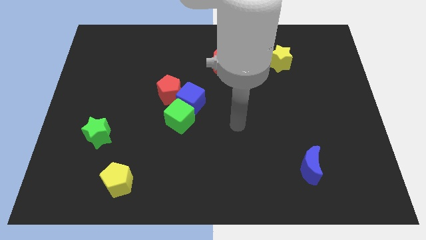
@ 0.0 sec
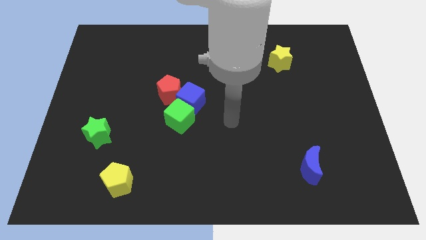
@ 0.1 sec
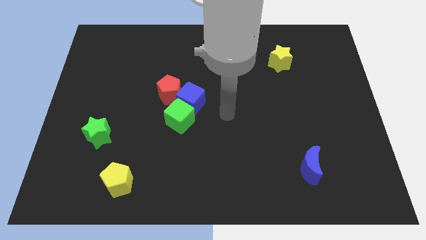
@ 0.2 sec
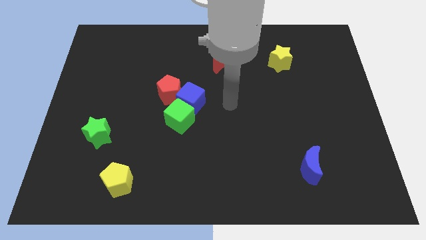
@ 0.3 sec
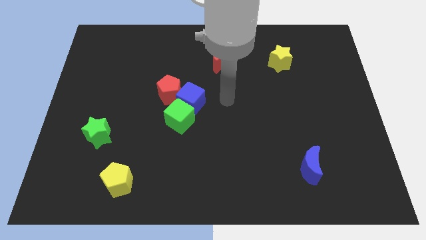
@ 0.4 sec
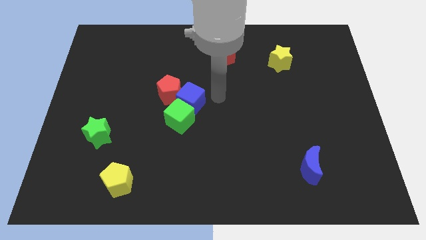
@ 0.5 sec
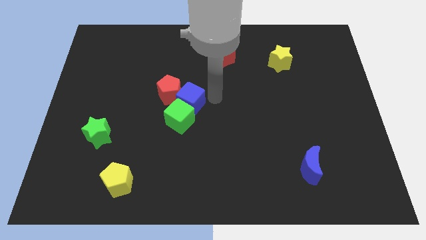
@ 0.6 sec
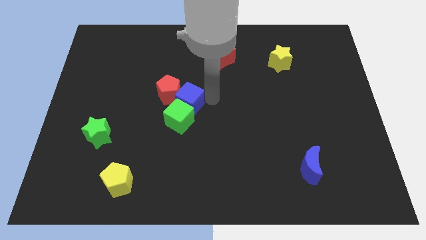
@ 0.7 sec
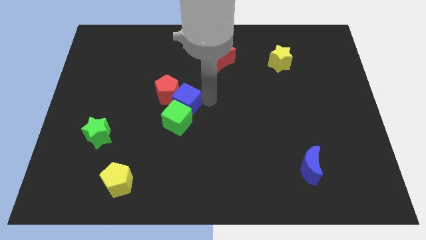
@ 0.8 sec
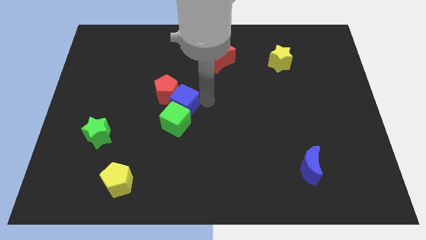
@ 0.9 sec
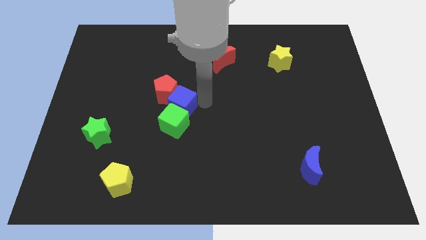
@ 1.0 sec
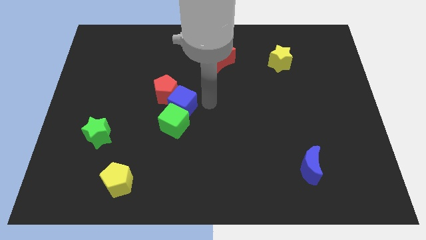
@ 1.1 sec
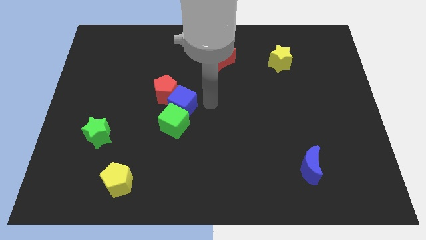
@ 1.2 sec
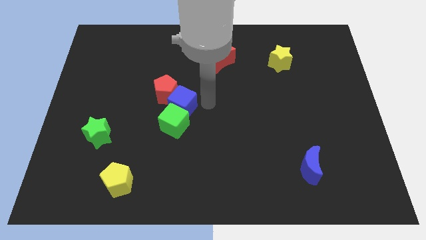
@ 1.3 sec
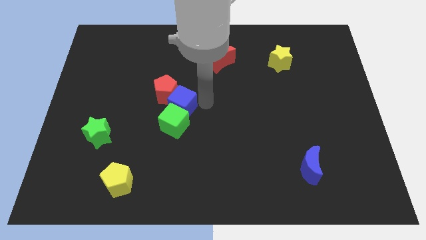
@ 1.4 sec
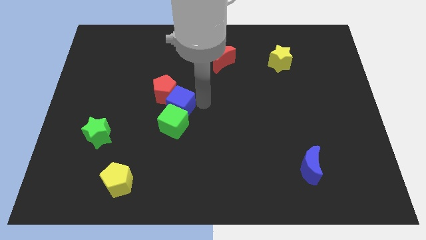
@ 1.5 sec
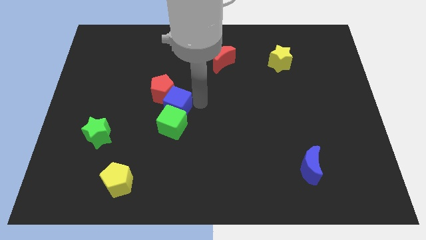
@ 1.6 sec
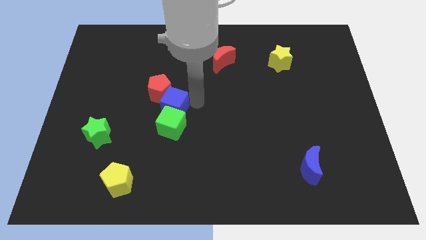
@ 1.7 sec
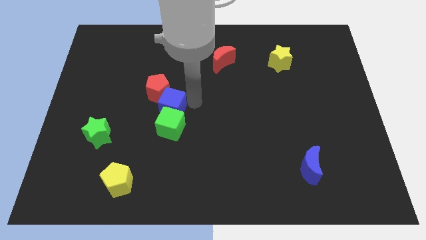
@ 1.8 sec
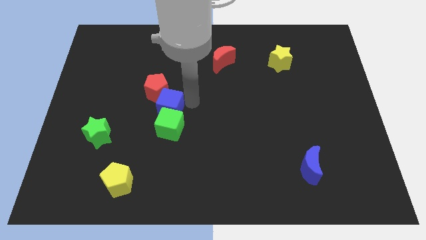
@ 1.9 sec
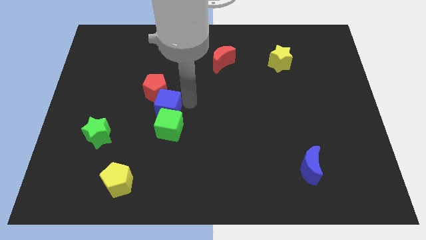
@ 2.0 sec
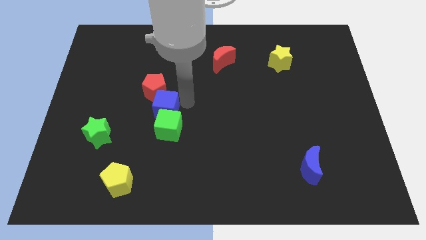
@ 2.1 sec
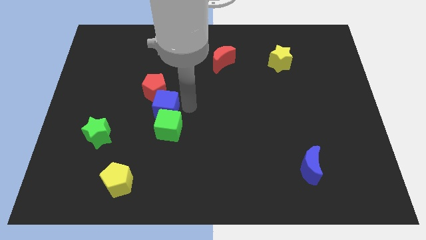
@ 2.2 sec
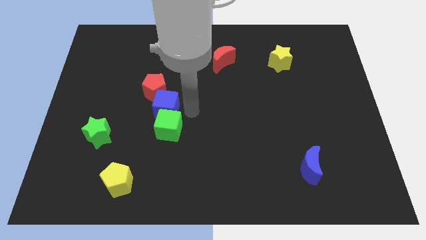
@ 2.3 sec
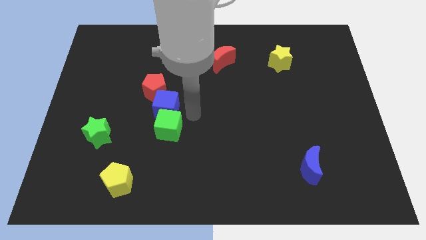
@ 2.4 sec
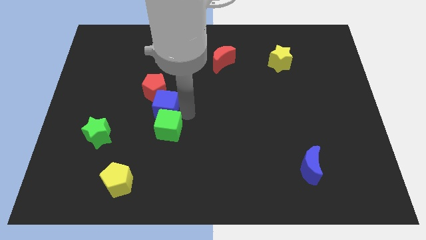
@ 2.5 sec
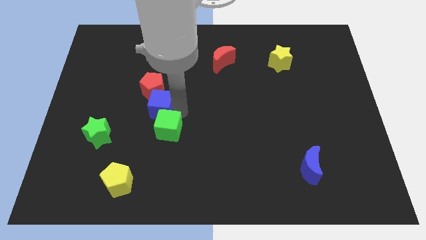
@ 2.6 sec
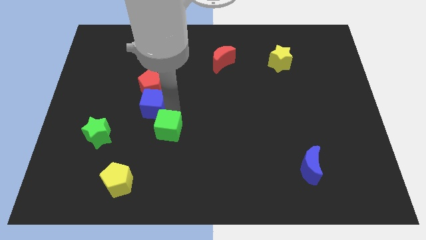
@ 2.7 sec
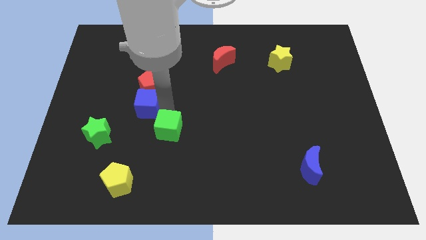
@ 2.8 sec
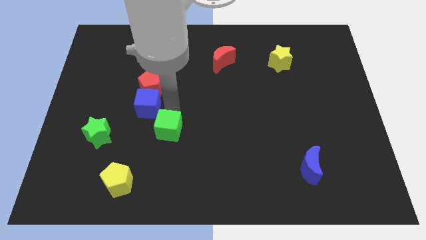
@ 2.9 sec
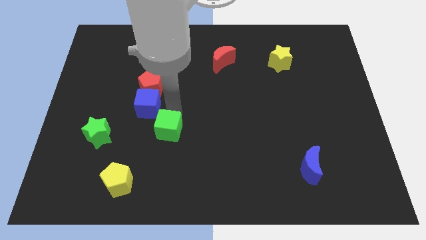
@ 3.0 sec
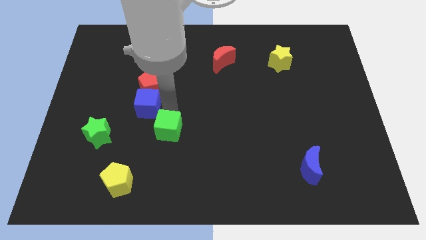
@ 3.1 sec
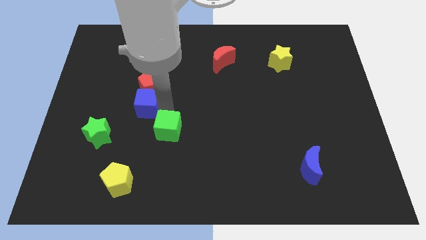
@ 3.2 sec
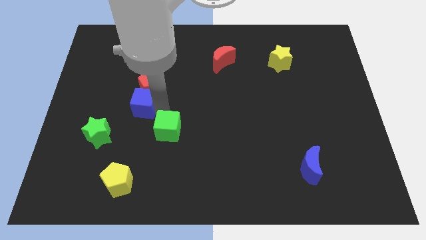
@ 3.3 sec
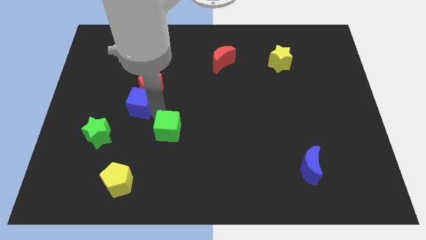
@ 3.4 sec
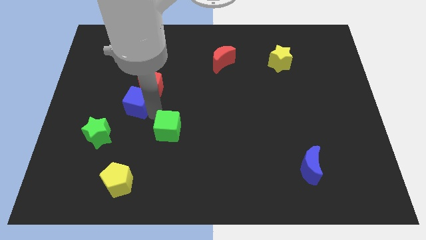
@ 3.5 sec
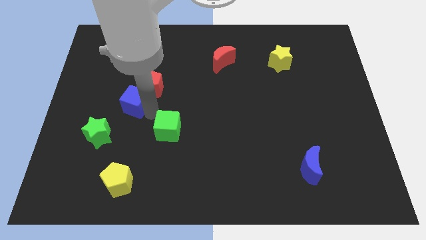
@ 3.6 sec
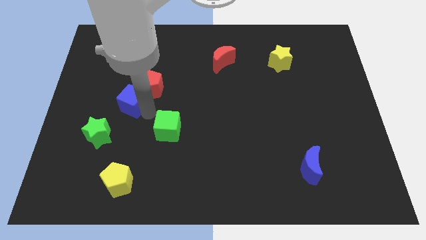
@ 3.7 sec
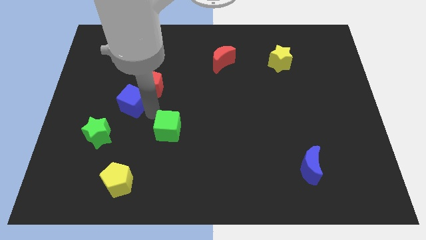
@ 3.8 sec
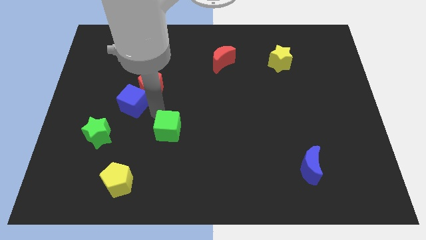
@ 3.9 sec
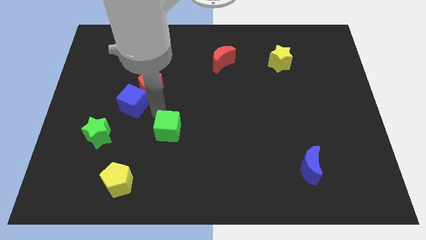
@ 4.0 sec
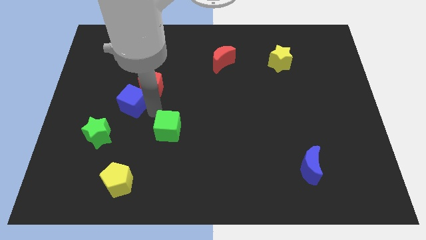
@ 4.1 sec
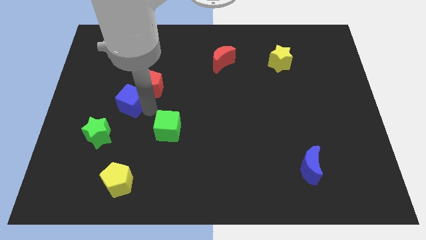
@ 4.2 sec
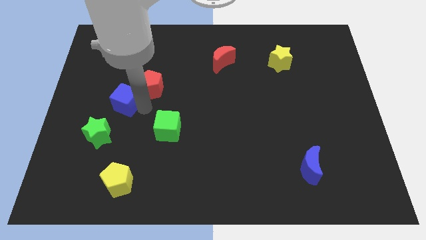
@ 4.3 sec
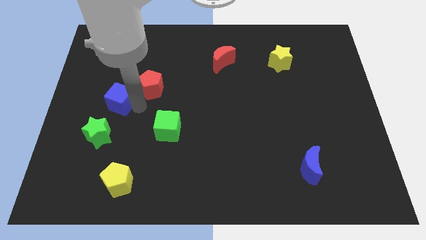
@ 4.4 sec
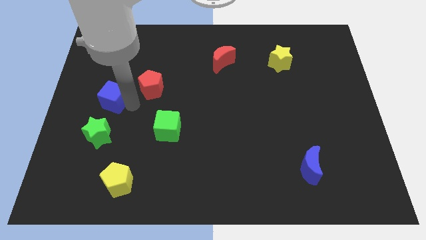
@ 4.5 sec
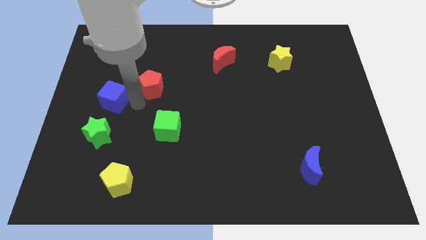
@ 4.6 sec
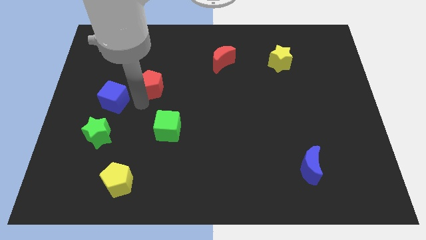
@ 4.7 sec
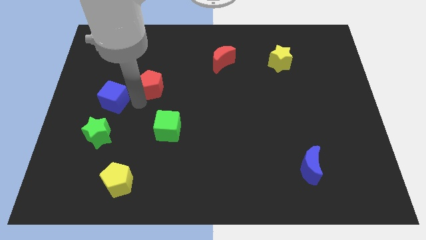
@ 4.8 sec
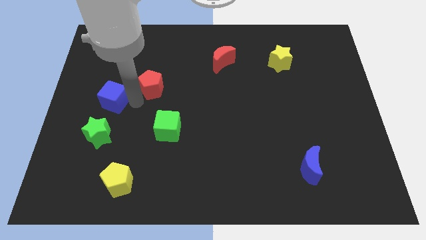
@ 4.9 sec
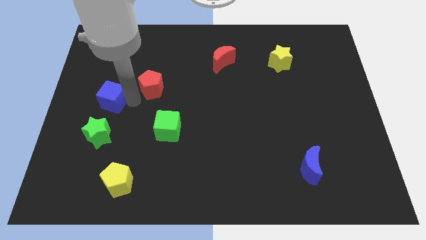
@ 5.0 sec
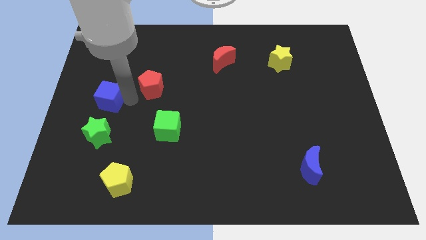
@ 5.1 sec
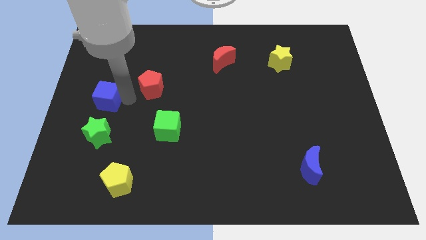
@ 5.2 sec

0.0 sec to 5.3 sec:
put the blue cube to the center left

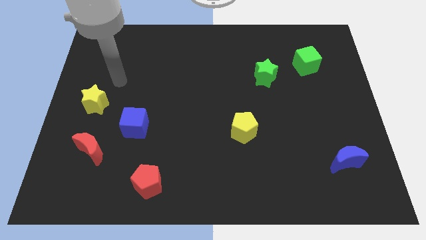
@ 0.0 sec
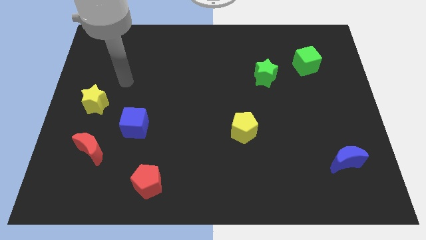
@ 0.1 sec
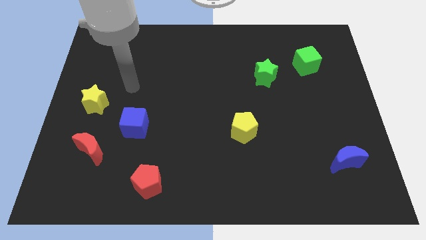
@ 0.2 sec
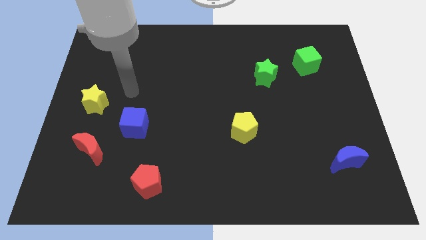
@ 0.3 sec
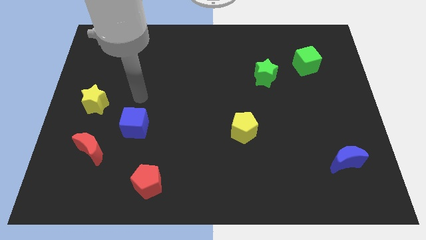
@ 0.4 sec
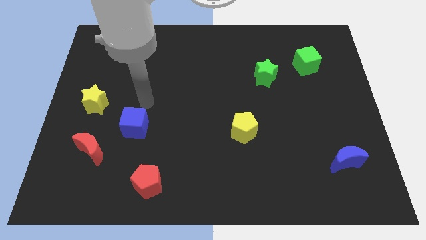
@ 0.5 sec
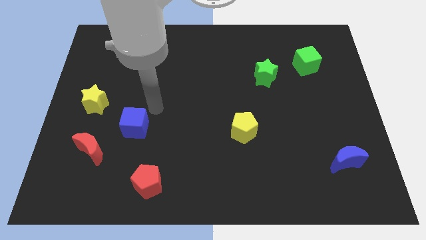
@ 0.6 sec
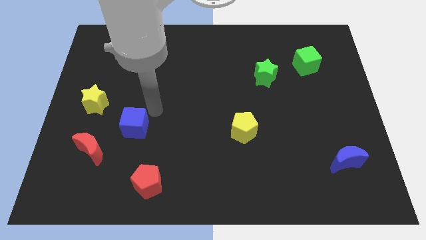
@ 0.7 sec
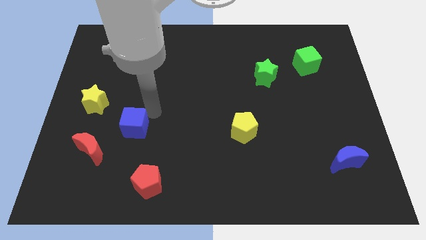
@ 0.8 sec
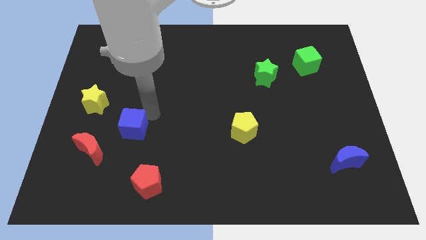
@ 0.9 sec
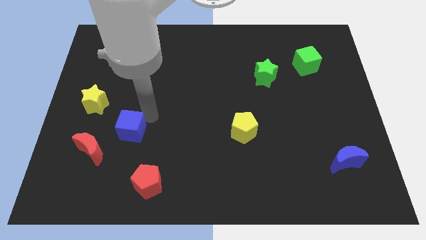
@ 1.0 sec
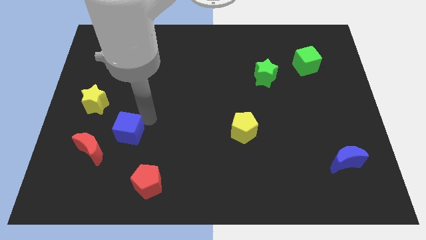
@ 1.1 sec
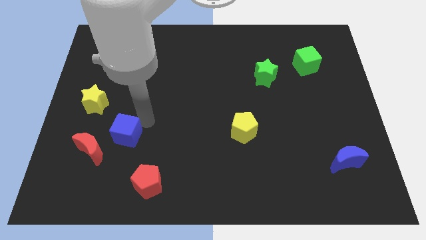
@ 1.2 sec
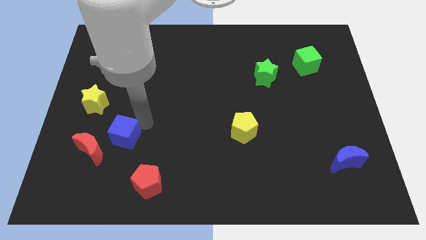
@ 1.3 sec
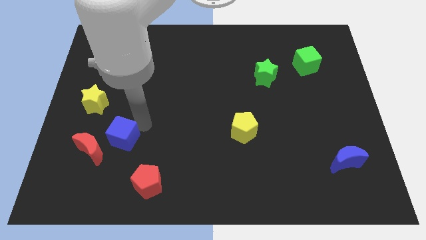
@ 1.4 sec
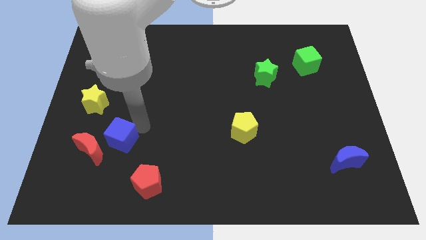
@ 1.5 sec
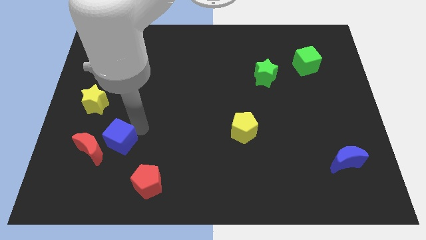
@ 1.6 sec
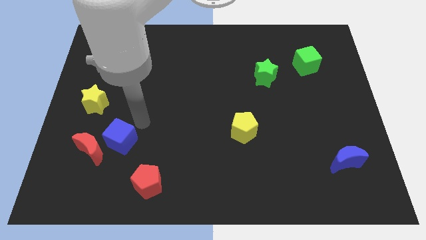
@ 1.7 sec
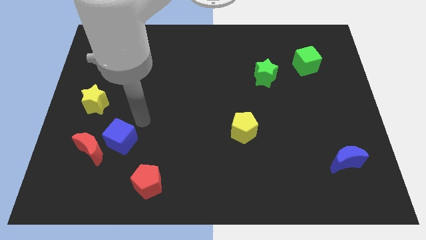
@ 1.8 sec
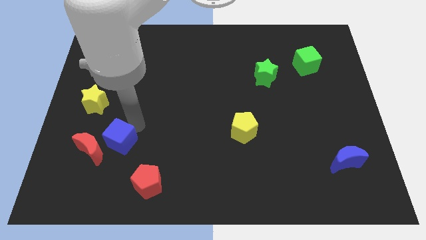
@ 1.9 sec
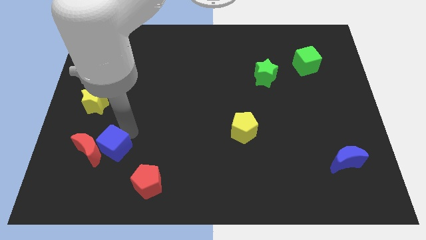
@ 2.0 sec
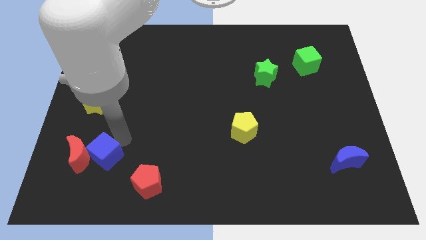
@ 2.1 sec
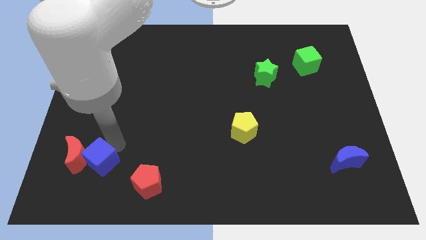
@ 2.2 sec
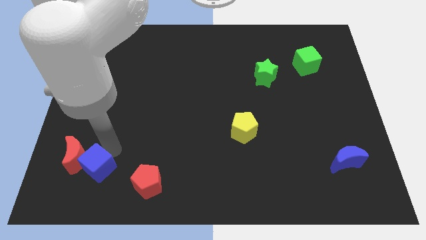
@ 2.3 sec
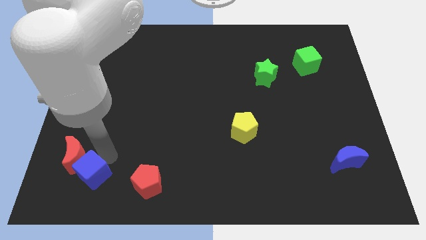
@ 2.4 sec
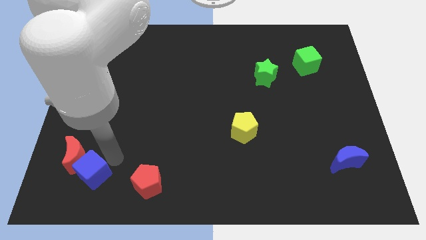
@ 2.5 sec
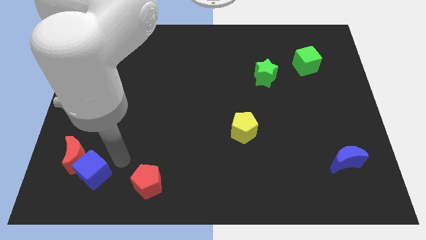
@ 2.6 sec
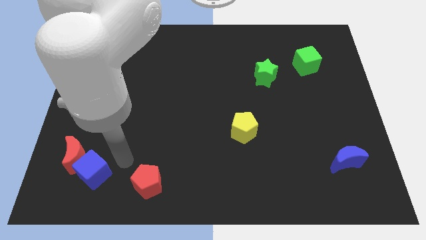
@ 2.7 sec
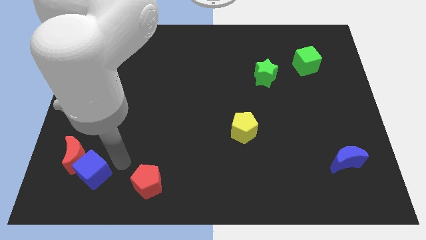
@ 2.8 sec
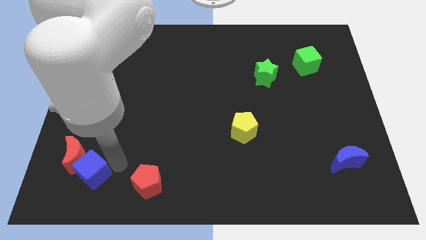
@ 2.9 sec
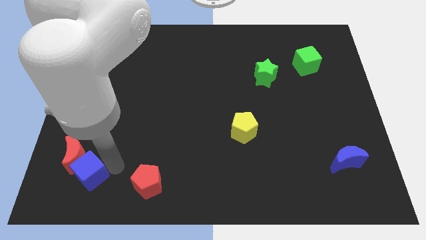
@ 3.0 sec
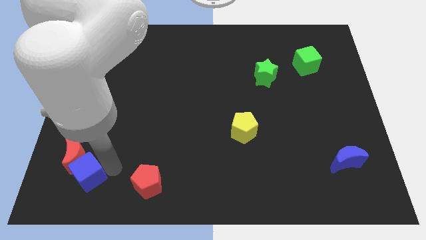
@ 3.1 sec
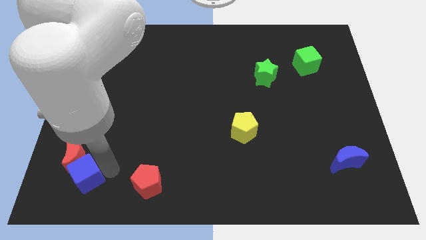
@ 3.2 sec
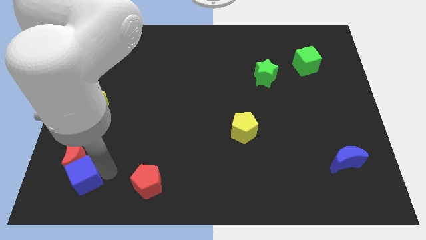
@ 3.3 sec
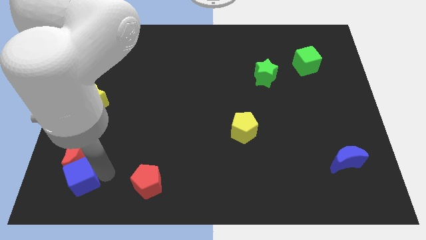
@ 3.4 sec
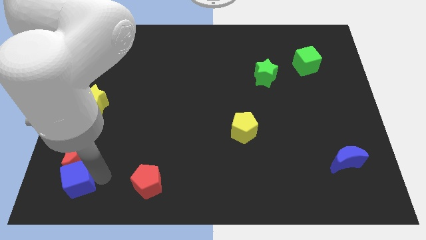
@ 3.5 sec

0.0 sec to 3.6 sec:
move the blue cube to the lower left corner
